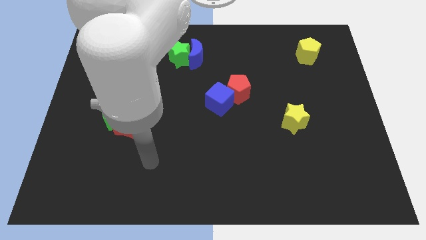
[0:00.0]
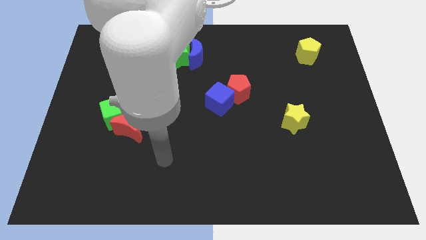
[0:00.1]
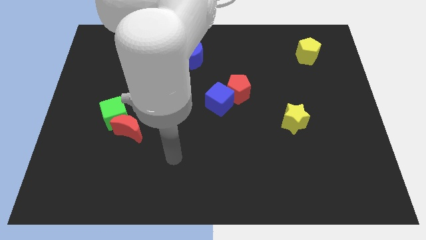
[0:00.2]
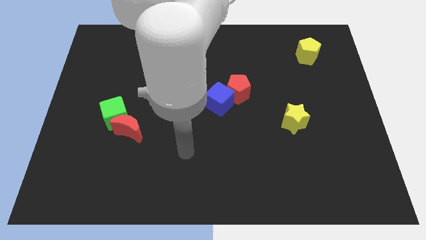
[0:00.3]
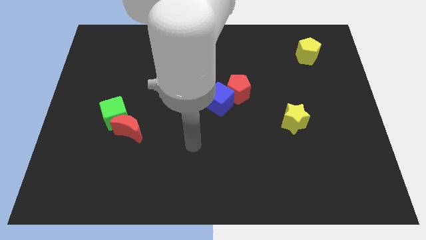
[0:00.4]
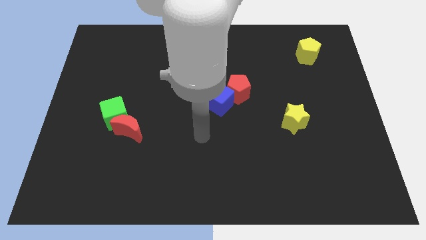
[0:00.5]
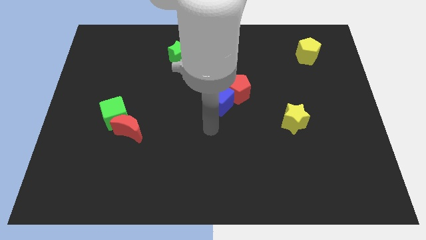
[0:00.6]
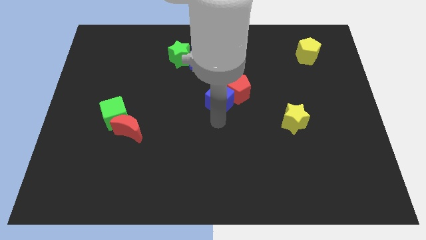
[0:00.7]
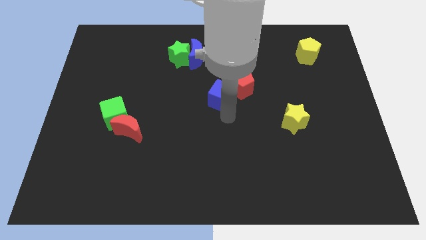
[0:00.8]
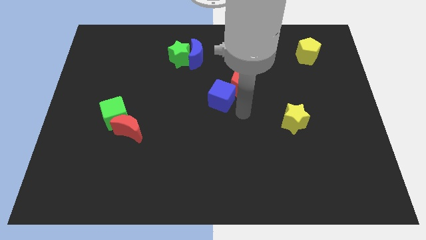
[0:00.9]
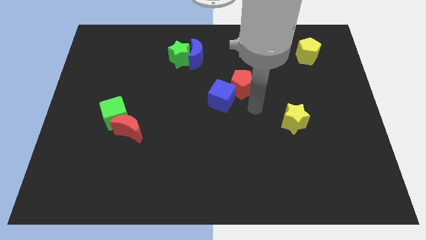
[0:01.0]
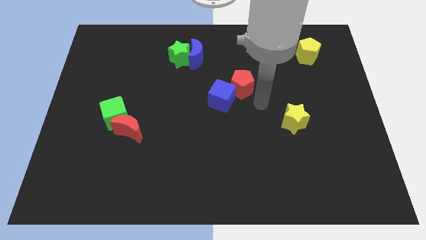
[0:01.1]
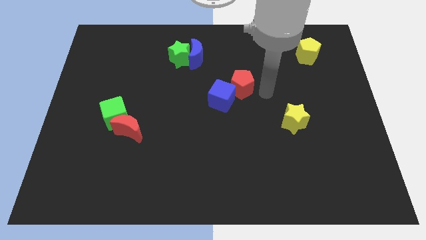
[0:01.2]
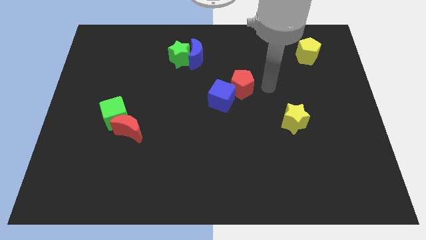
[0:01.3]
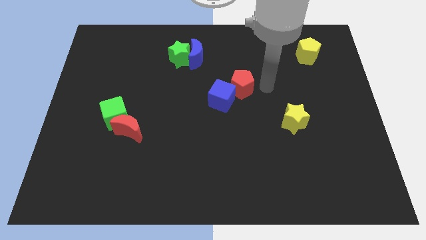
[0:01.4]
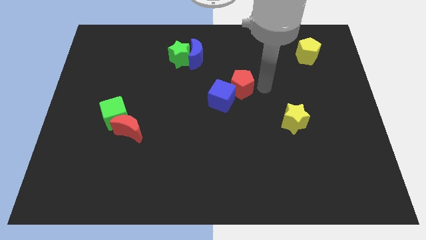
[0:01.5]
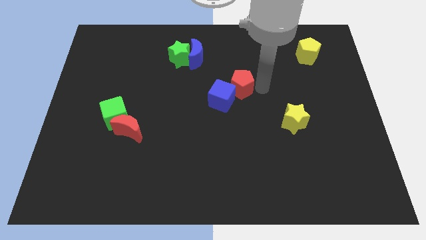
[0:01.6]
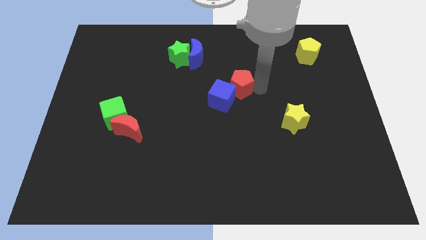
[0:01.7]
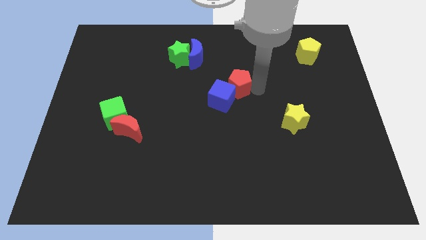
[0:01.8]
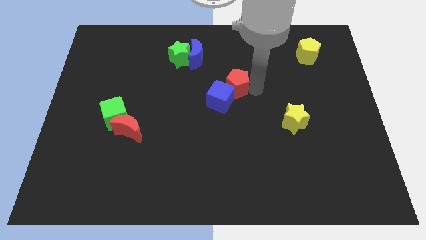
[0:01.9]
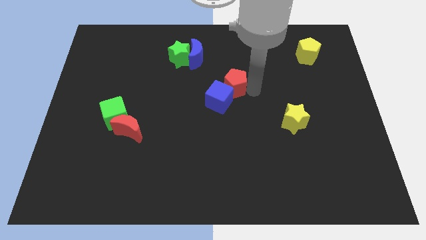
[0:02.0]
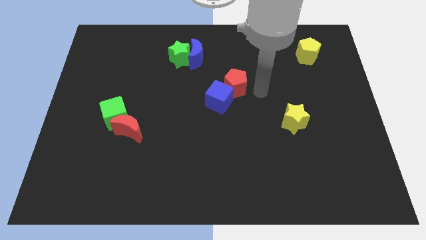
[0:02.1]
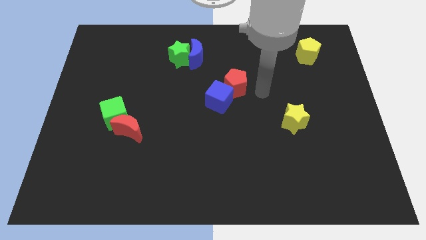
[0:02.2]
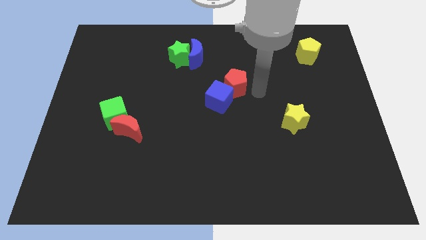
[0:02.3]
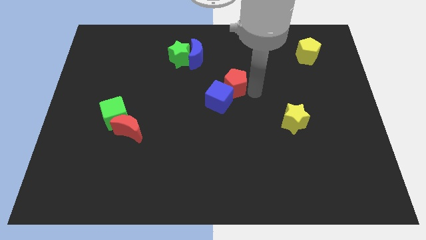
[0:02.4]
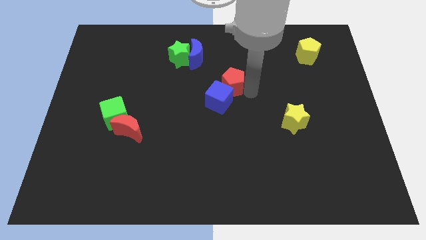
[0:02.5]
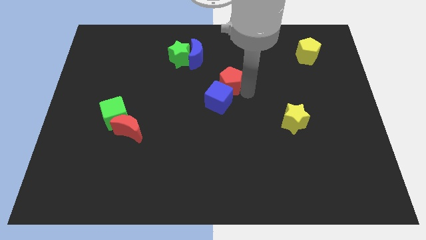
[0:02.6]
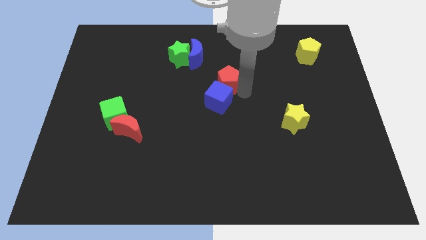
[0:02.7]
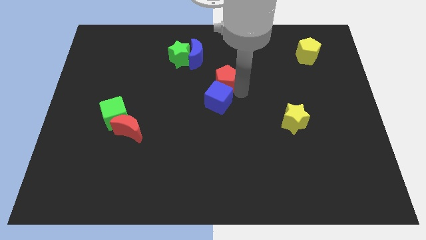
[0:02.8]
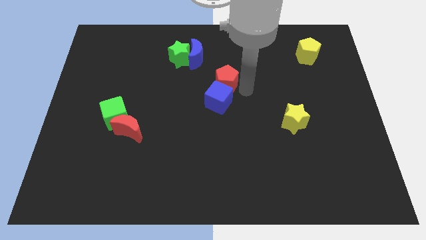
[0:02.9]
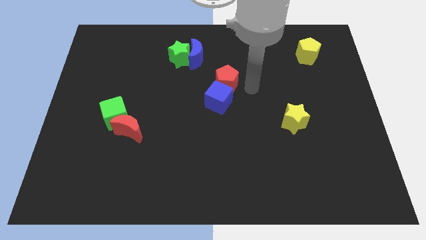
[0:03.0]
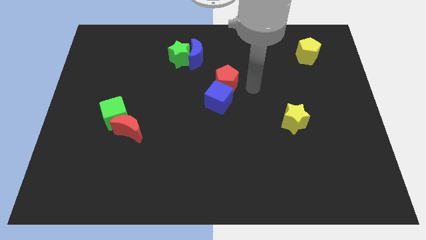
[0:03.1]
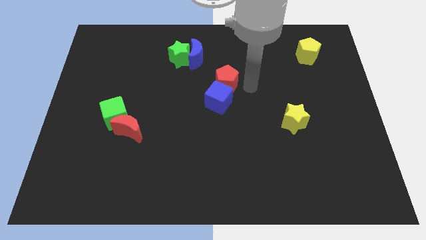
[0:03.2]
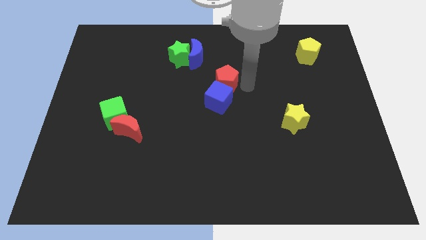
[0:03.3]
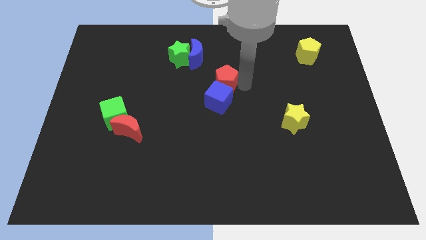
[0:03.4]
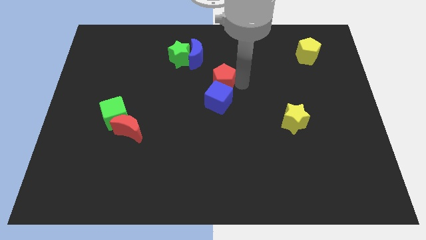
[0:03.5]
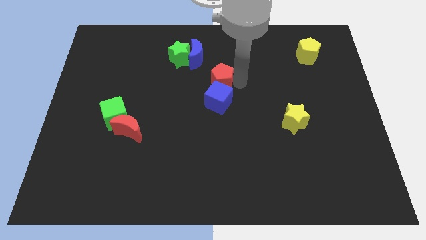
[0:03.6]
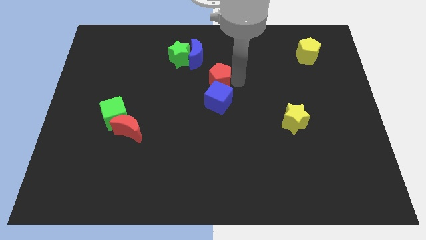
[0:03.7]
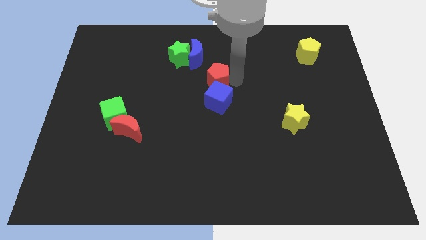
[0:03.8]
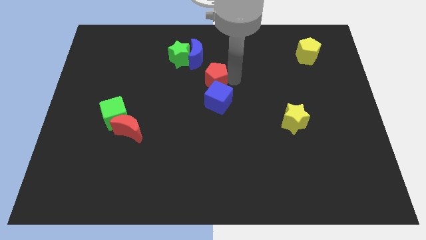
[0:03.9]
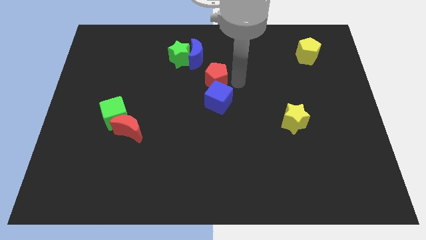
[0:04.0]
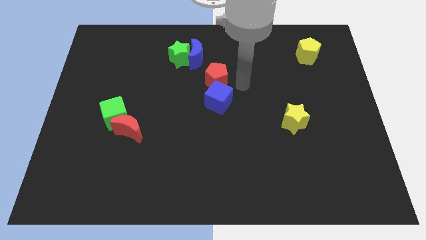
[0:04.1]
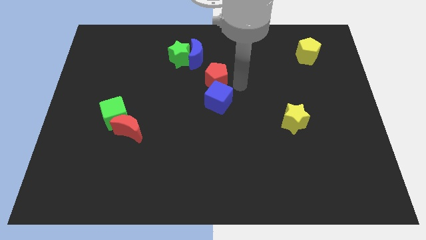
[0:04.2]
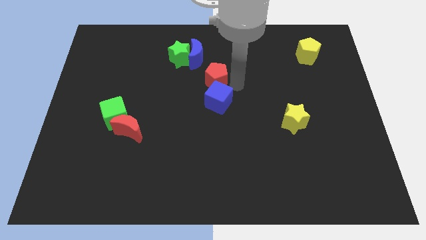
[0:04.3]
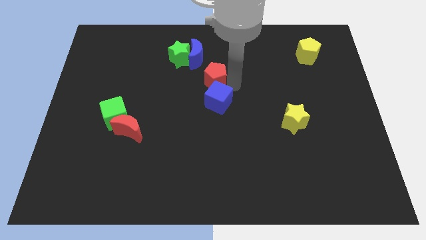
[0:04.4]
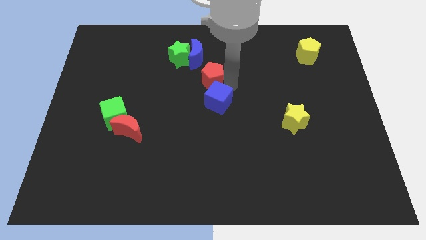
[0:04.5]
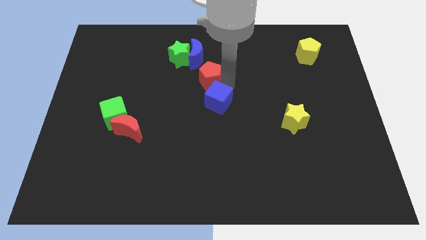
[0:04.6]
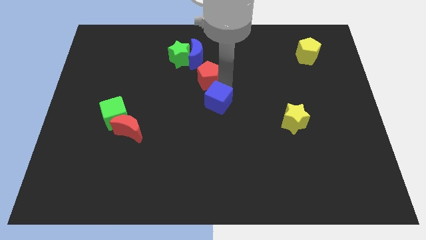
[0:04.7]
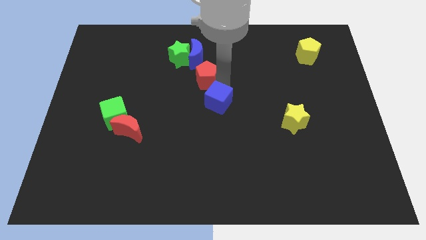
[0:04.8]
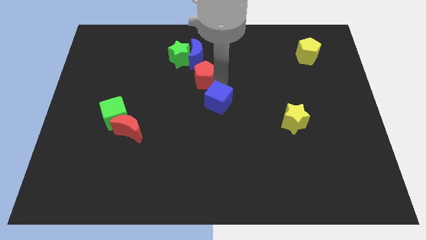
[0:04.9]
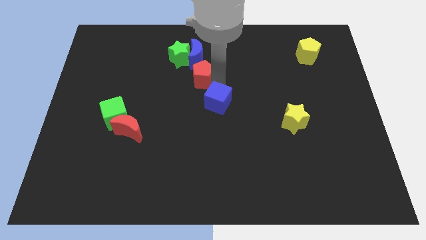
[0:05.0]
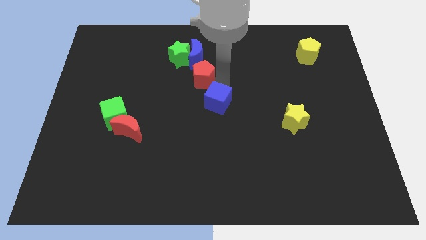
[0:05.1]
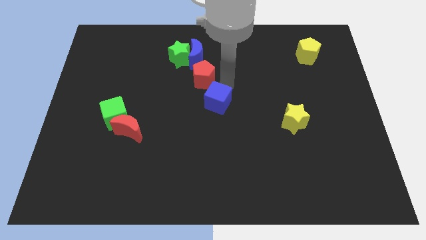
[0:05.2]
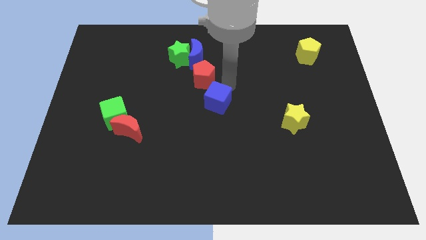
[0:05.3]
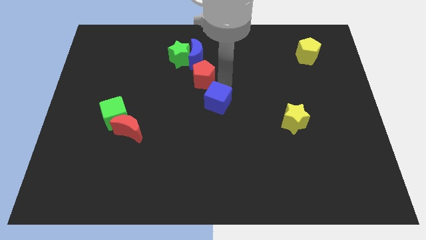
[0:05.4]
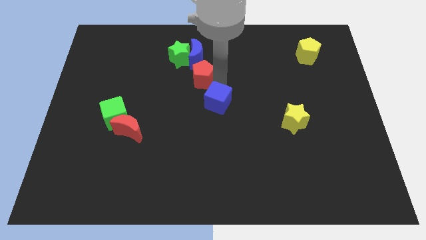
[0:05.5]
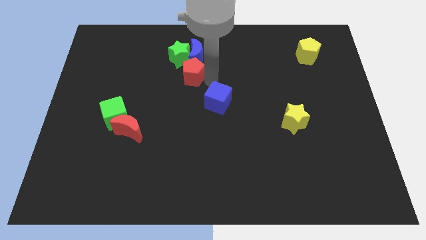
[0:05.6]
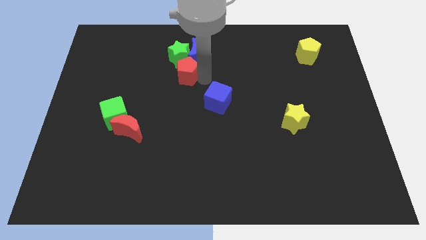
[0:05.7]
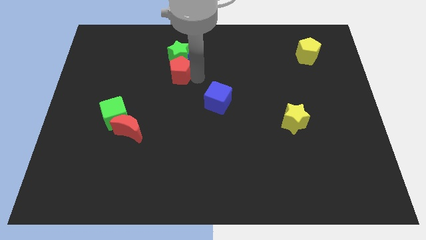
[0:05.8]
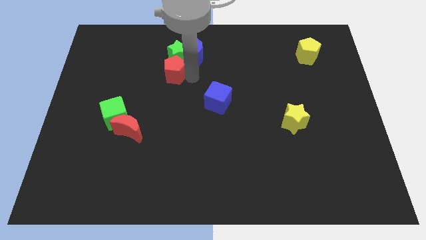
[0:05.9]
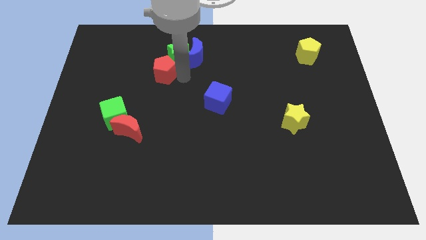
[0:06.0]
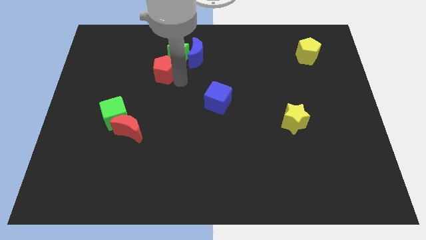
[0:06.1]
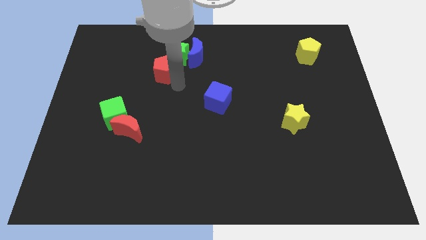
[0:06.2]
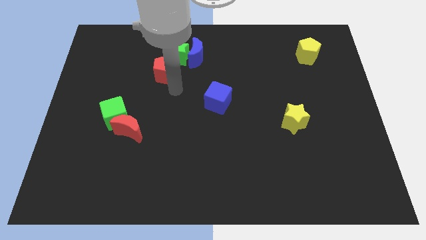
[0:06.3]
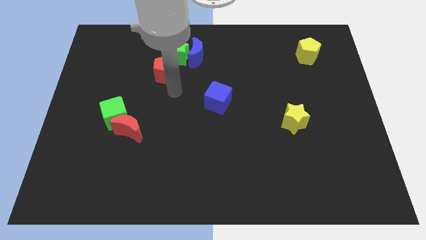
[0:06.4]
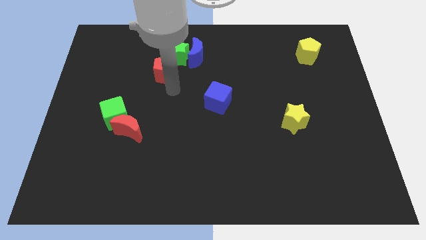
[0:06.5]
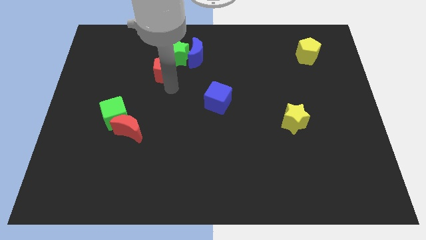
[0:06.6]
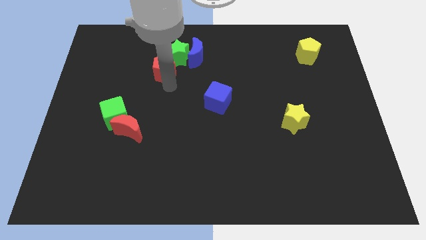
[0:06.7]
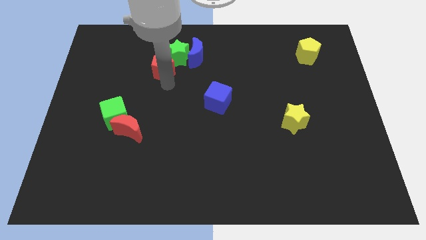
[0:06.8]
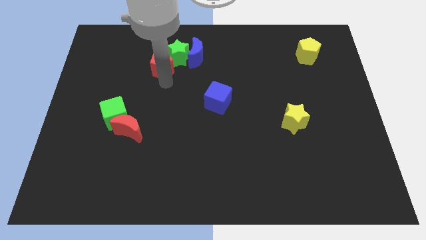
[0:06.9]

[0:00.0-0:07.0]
slide the red pentagon left of the blue moon

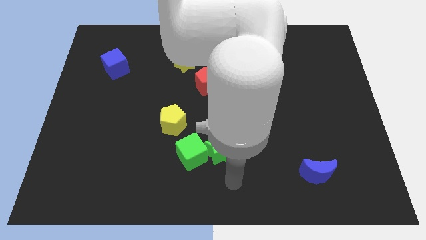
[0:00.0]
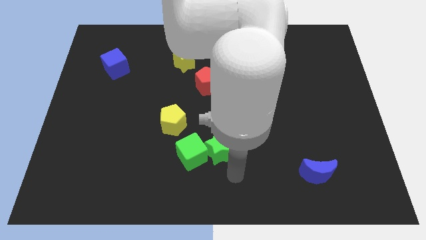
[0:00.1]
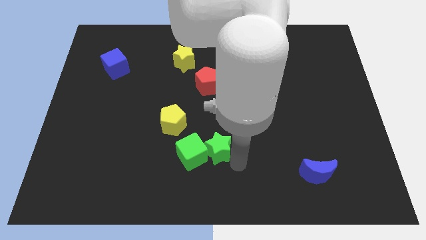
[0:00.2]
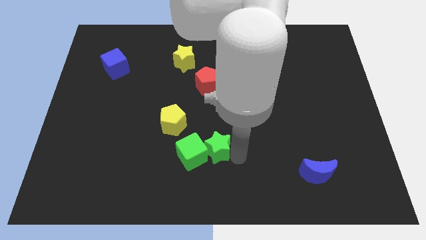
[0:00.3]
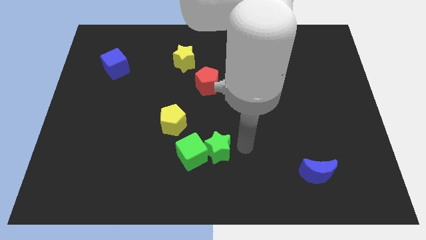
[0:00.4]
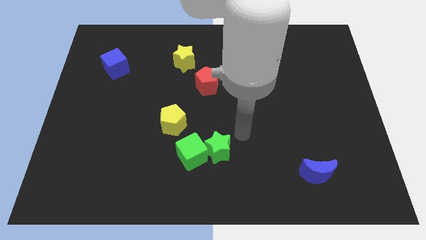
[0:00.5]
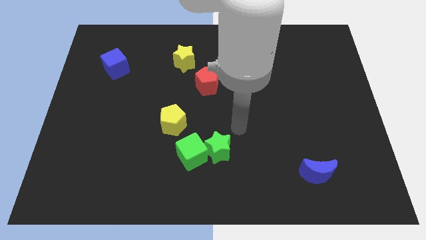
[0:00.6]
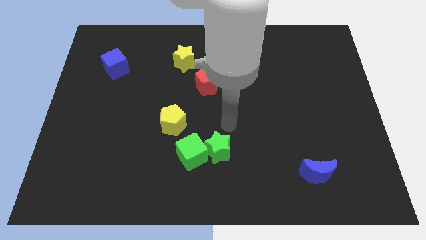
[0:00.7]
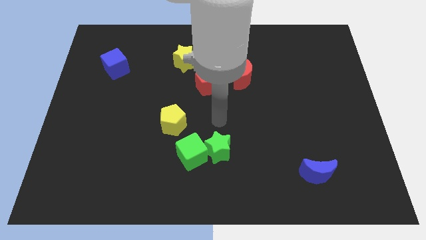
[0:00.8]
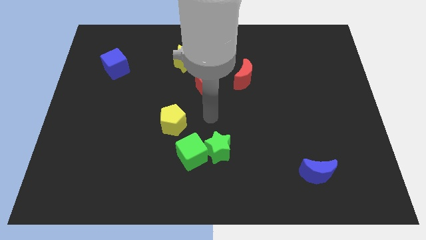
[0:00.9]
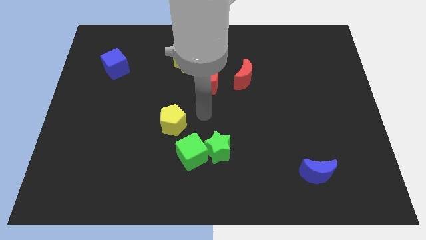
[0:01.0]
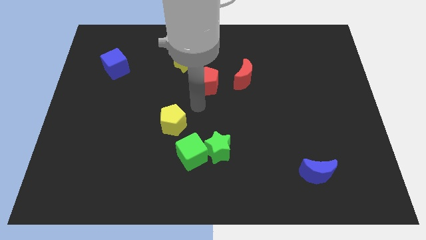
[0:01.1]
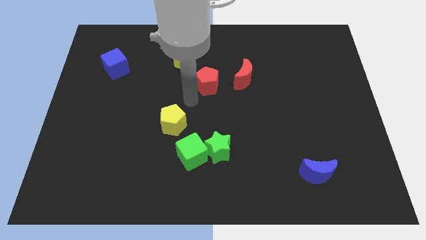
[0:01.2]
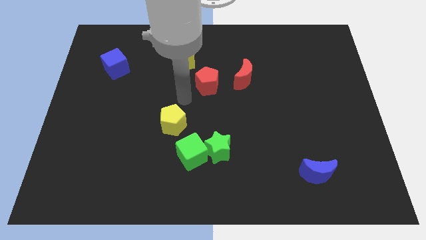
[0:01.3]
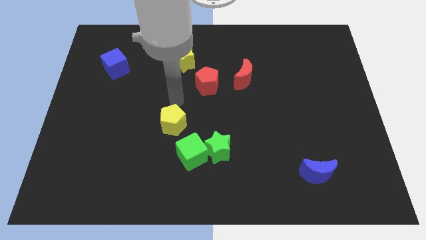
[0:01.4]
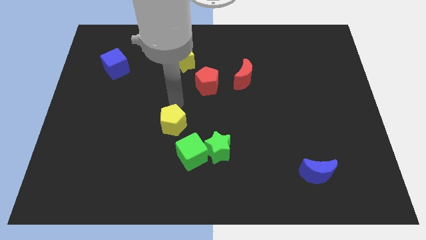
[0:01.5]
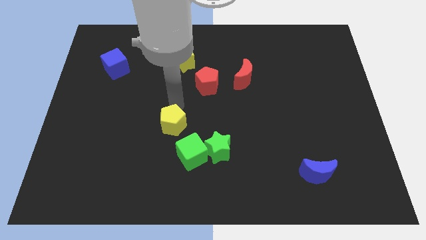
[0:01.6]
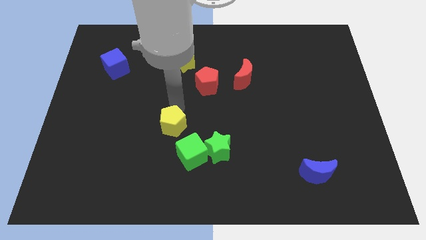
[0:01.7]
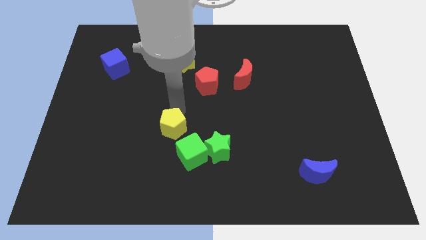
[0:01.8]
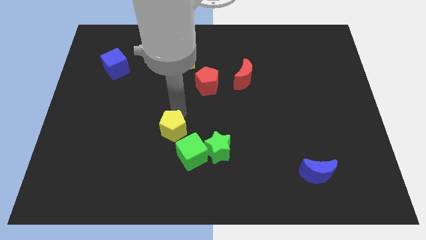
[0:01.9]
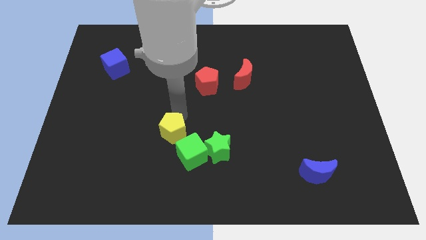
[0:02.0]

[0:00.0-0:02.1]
push the yellow pentagon to the left of the green star
